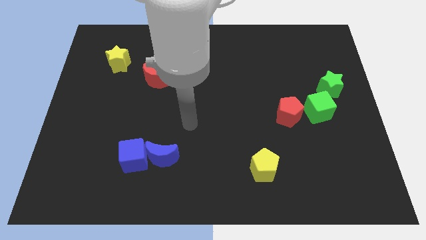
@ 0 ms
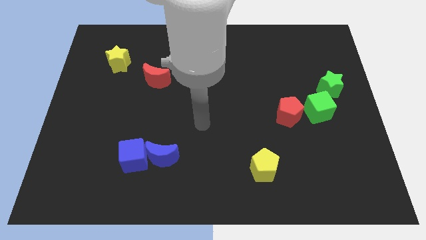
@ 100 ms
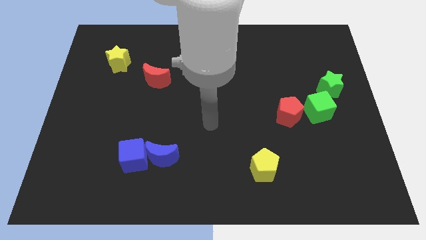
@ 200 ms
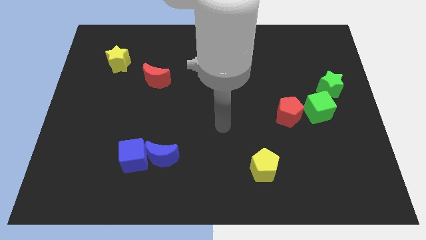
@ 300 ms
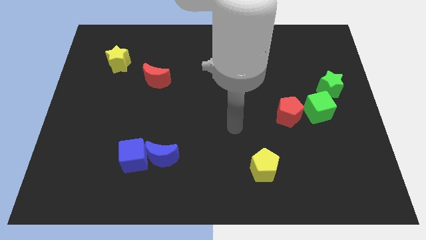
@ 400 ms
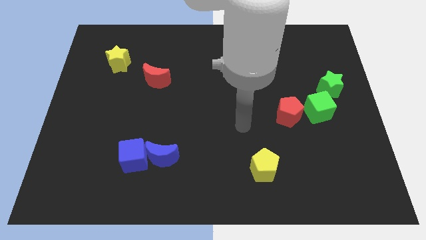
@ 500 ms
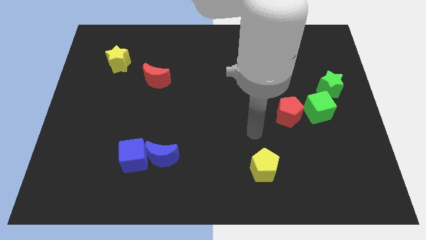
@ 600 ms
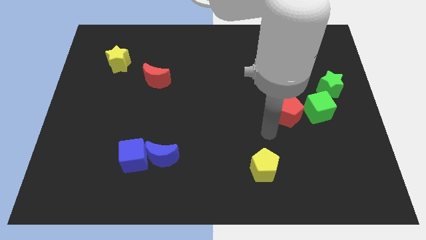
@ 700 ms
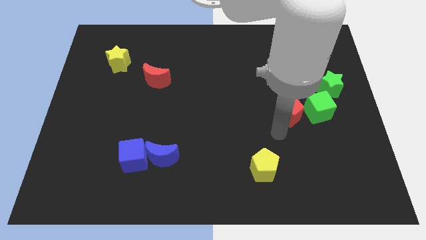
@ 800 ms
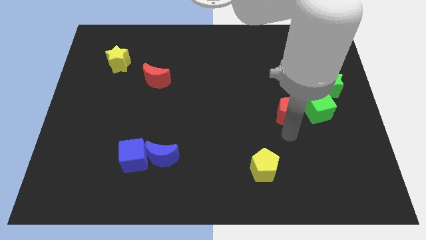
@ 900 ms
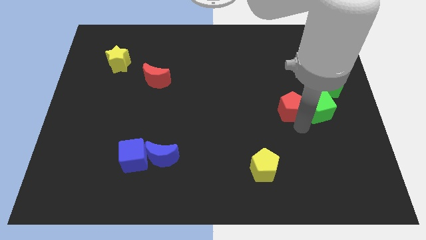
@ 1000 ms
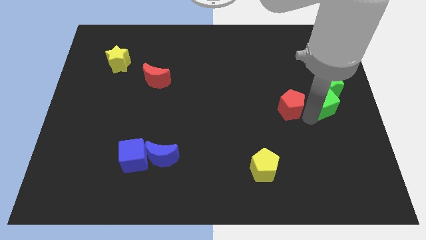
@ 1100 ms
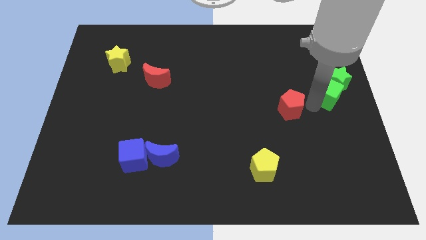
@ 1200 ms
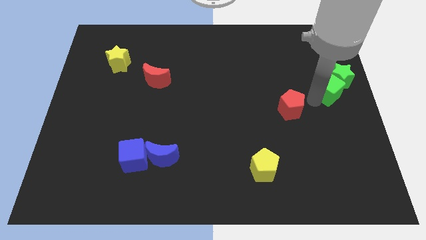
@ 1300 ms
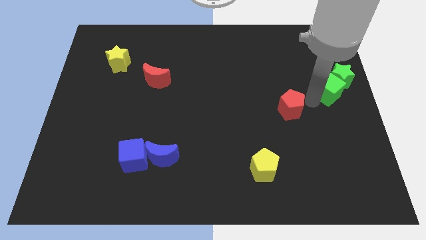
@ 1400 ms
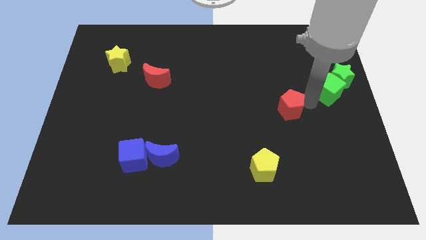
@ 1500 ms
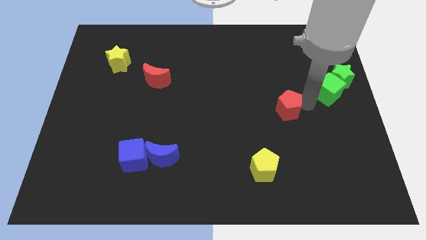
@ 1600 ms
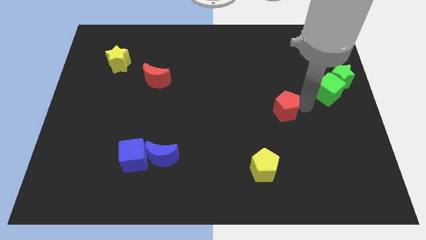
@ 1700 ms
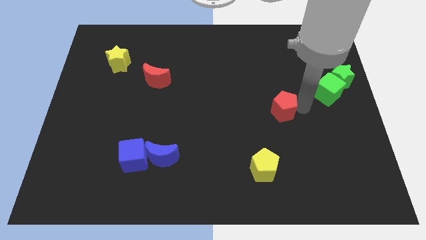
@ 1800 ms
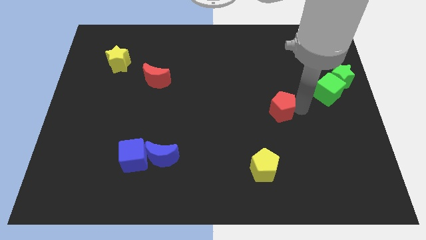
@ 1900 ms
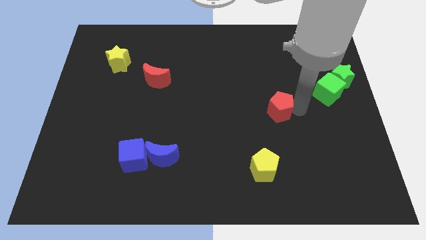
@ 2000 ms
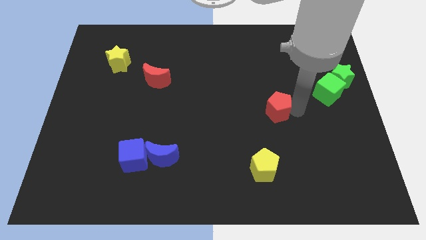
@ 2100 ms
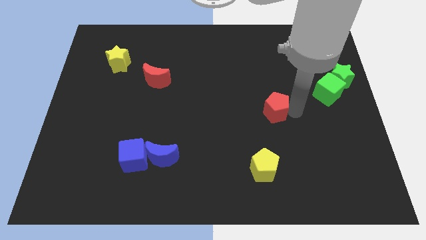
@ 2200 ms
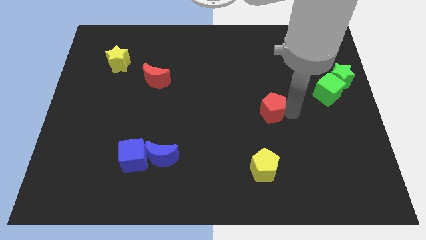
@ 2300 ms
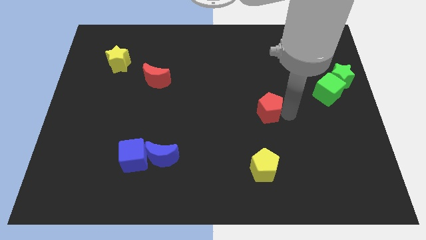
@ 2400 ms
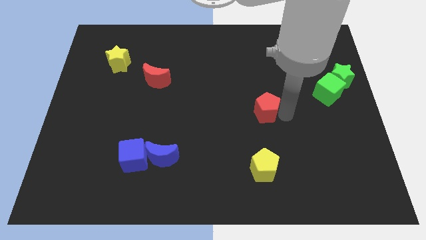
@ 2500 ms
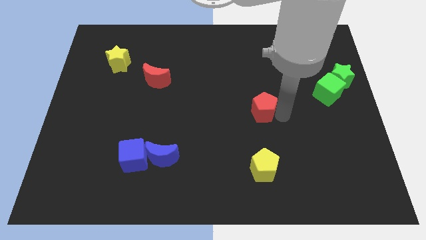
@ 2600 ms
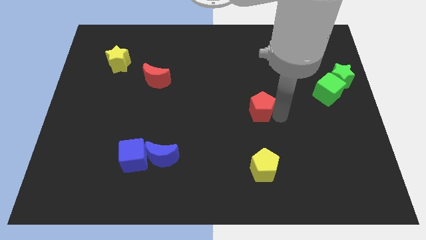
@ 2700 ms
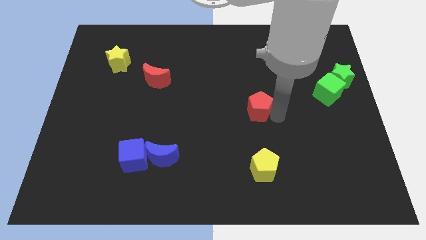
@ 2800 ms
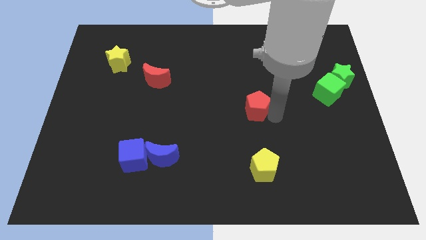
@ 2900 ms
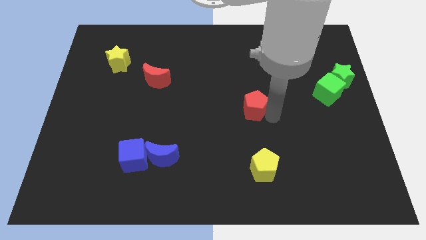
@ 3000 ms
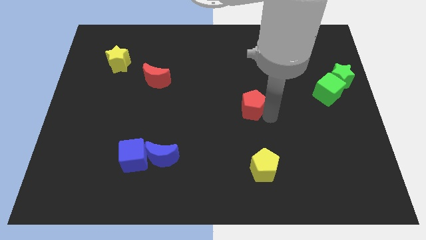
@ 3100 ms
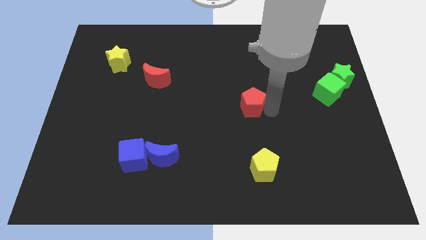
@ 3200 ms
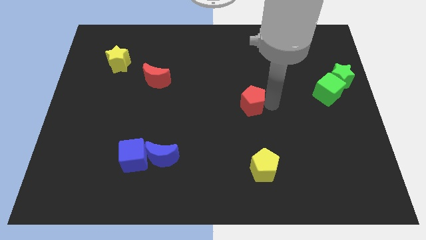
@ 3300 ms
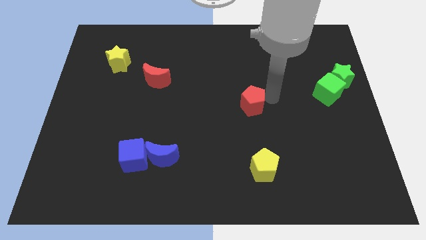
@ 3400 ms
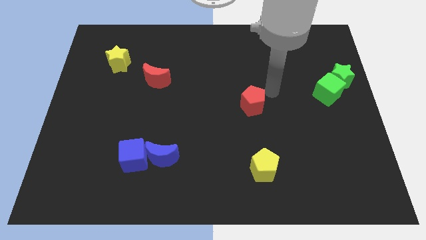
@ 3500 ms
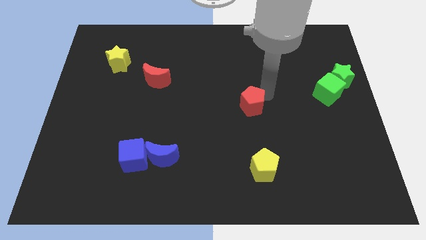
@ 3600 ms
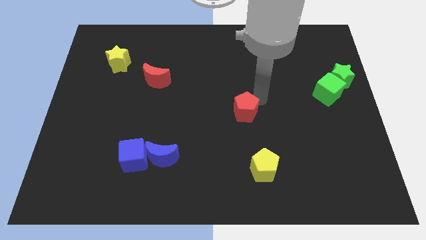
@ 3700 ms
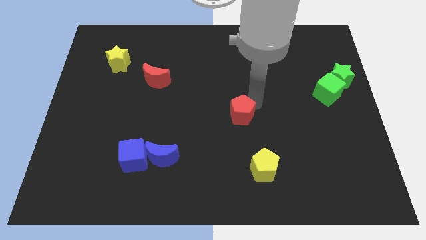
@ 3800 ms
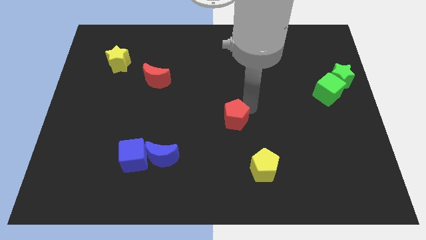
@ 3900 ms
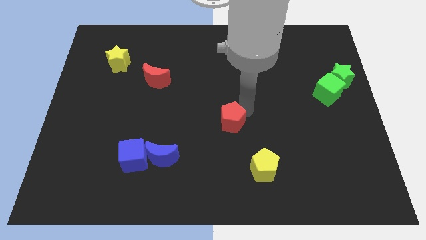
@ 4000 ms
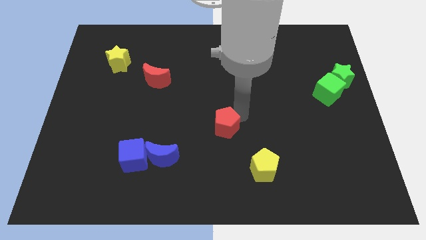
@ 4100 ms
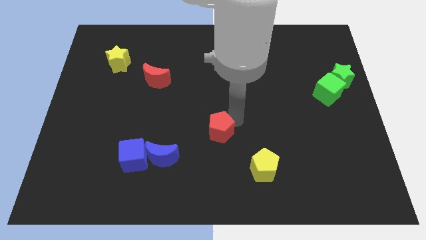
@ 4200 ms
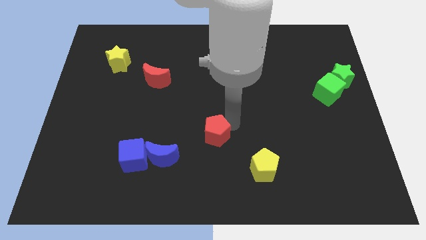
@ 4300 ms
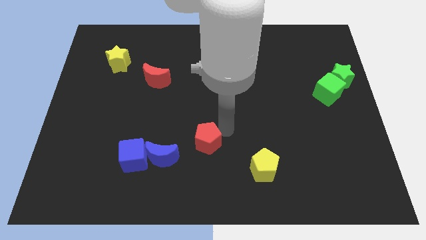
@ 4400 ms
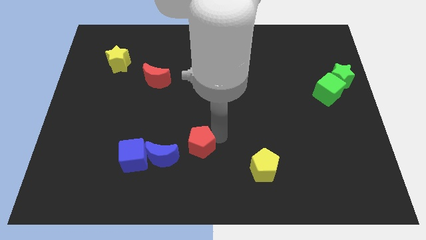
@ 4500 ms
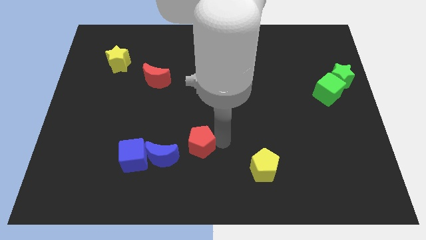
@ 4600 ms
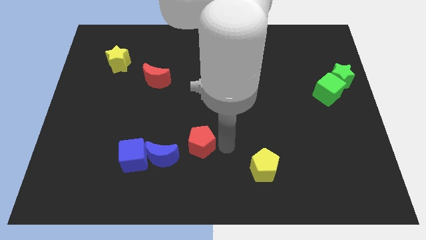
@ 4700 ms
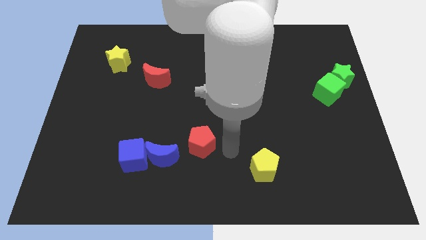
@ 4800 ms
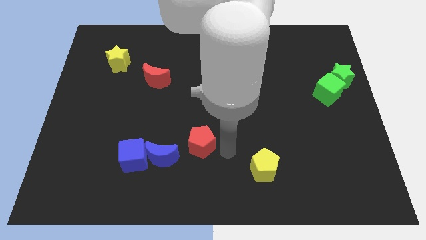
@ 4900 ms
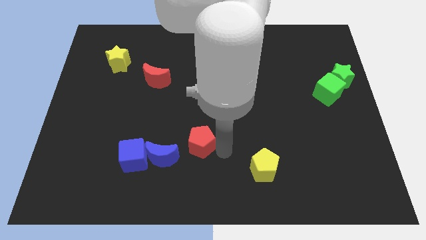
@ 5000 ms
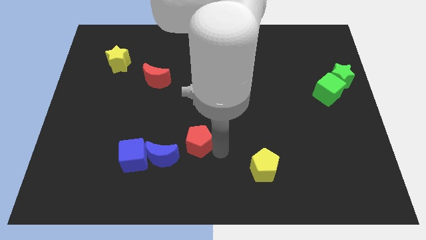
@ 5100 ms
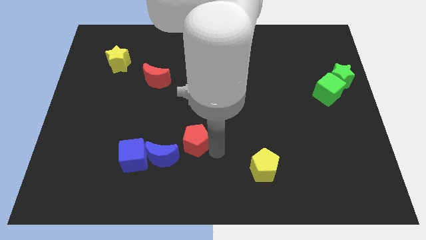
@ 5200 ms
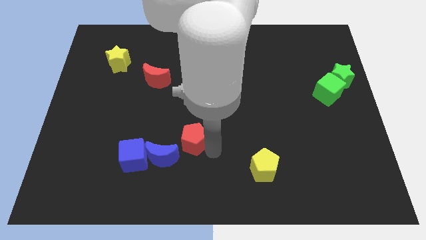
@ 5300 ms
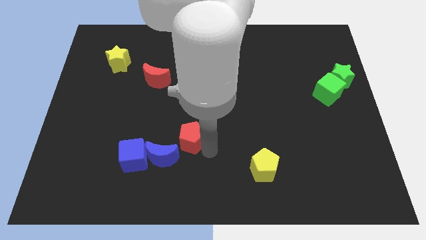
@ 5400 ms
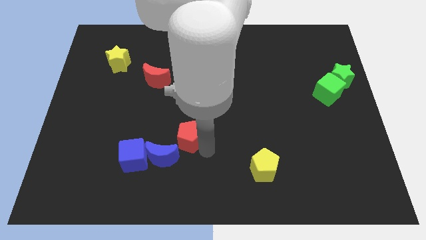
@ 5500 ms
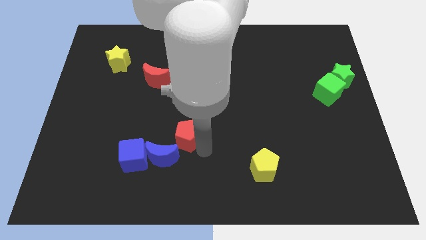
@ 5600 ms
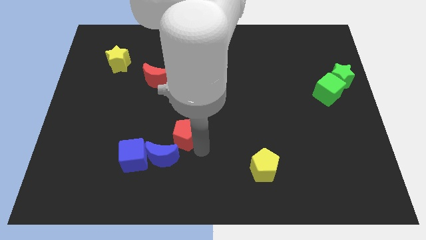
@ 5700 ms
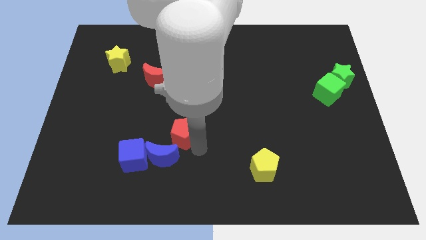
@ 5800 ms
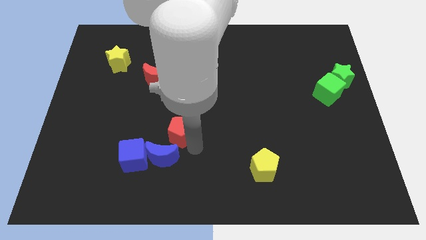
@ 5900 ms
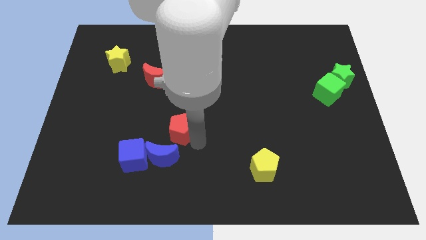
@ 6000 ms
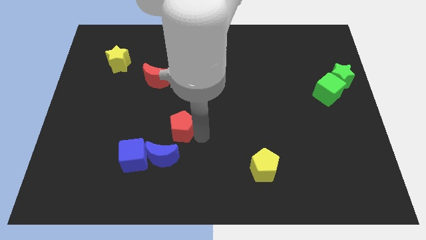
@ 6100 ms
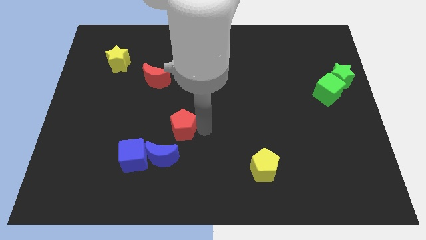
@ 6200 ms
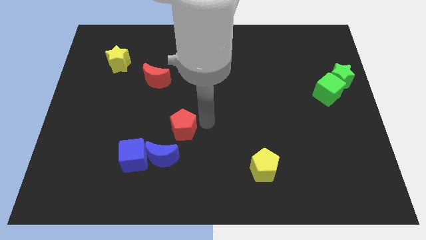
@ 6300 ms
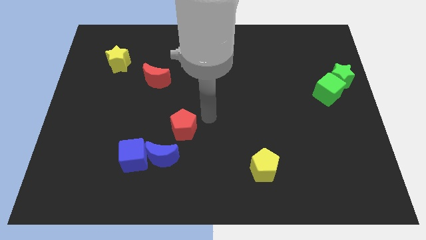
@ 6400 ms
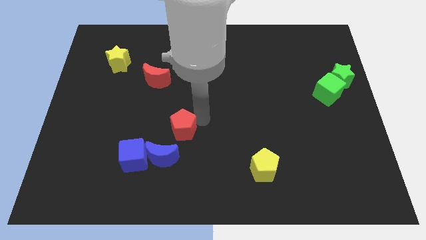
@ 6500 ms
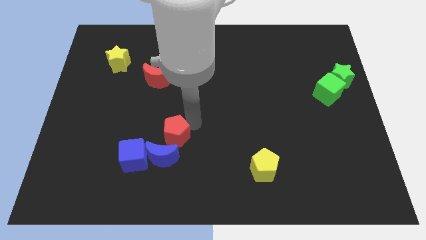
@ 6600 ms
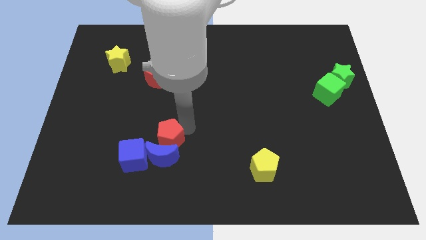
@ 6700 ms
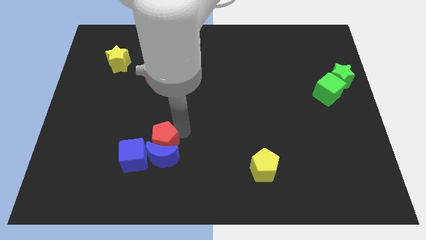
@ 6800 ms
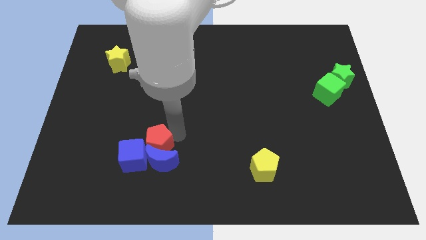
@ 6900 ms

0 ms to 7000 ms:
push the red pentagon next to the blue cube

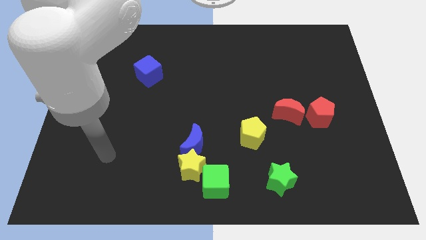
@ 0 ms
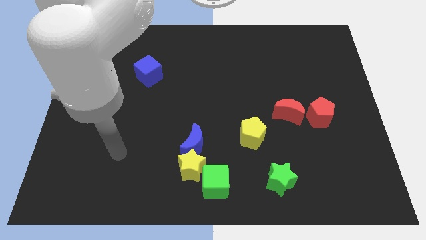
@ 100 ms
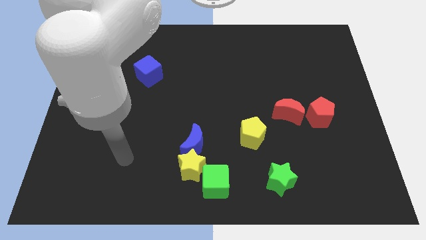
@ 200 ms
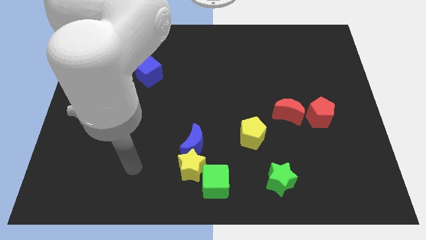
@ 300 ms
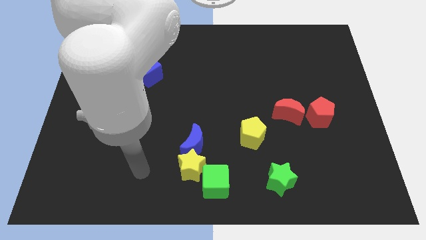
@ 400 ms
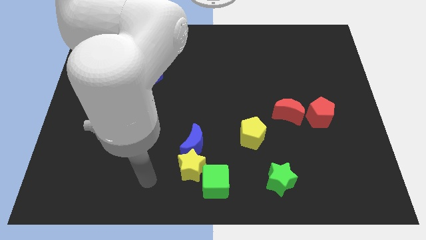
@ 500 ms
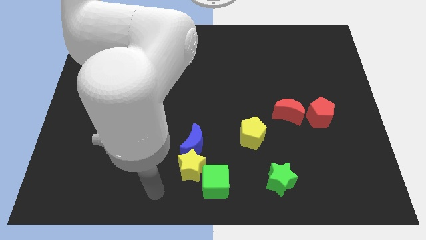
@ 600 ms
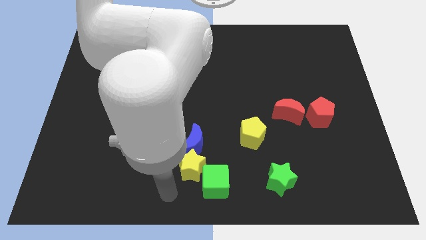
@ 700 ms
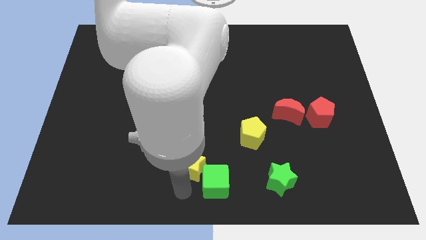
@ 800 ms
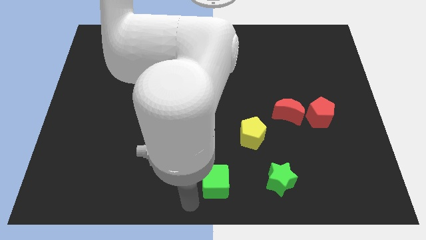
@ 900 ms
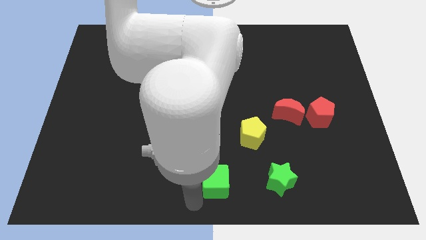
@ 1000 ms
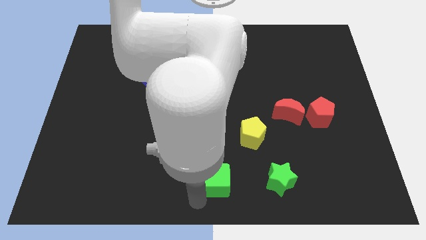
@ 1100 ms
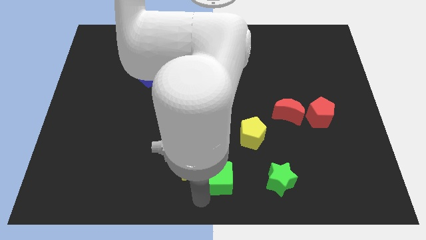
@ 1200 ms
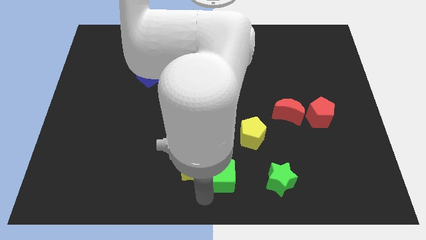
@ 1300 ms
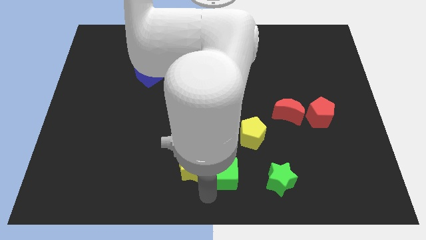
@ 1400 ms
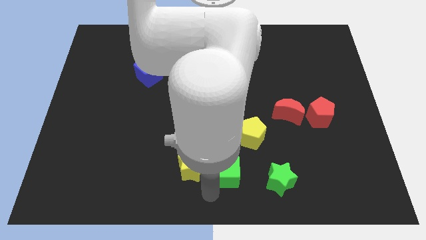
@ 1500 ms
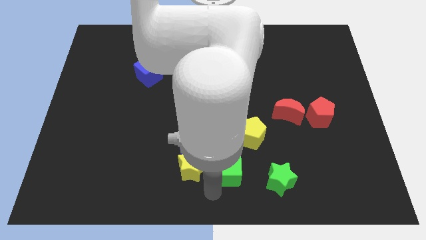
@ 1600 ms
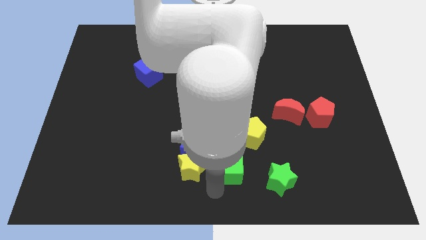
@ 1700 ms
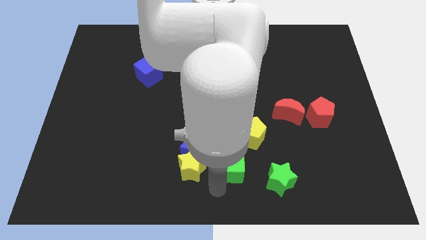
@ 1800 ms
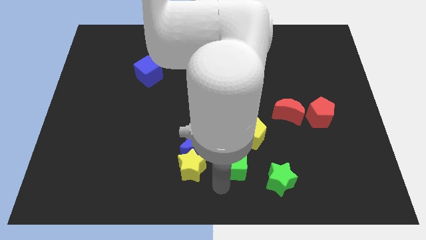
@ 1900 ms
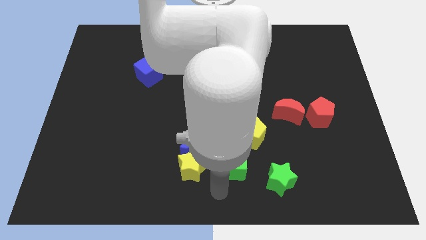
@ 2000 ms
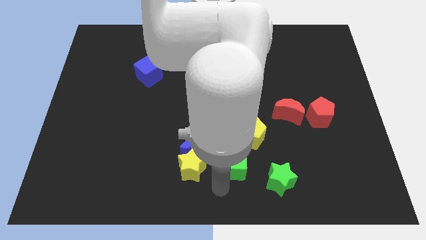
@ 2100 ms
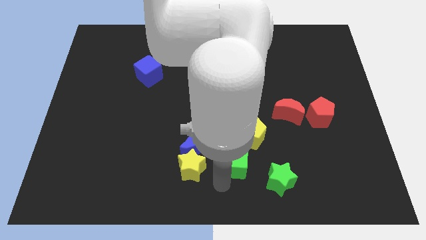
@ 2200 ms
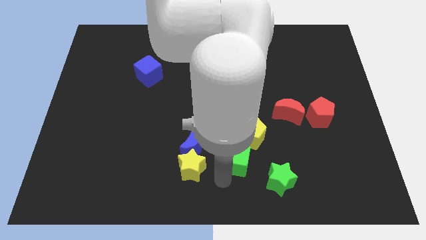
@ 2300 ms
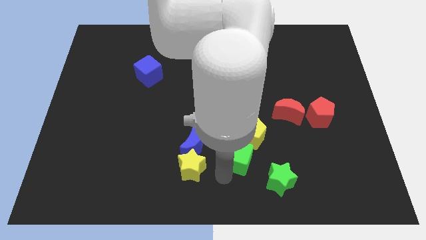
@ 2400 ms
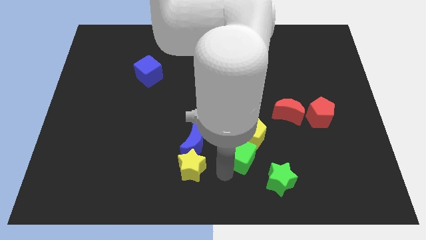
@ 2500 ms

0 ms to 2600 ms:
push the green cube close to the yellow pentagon
